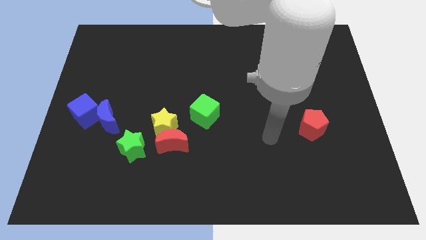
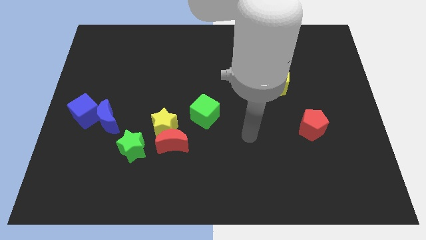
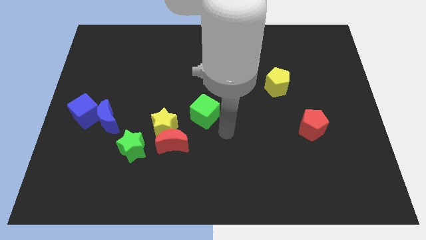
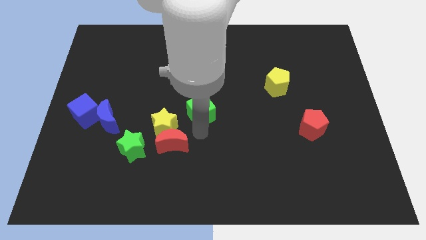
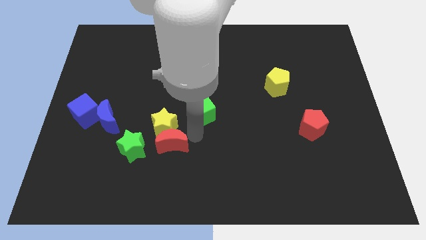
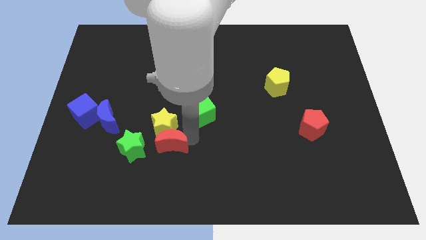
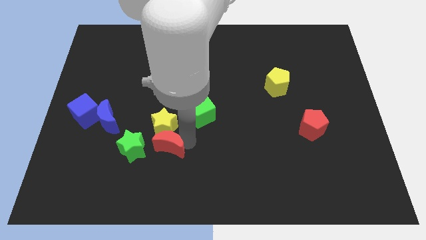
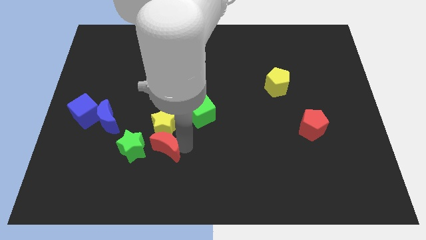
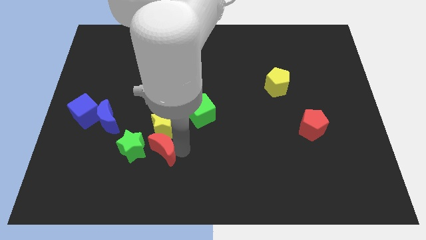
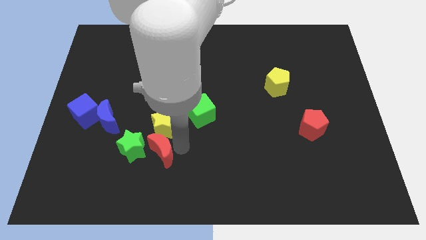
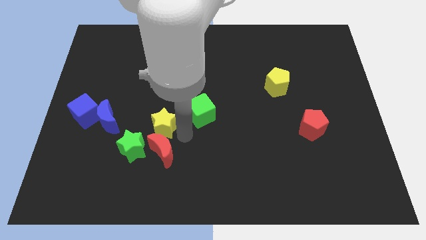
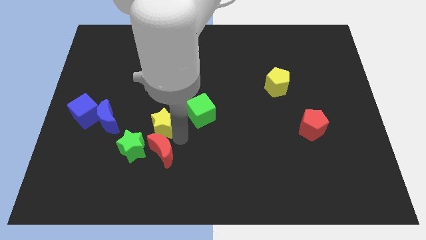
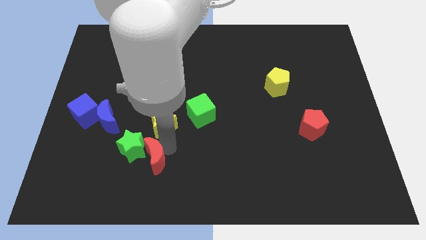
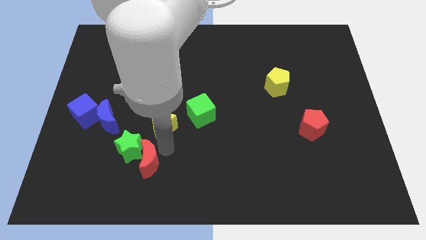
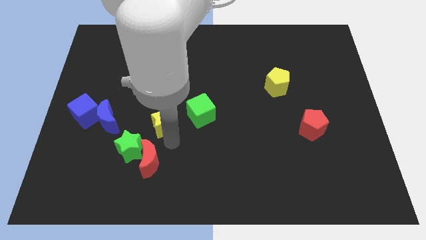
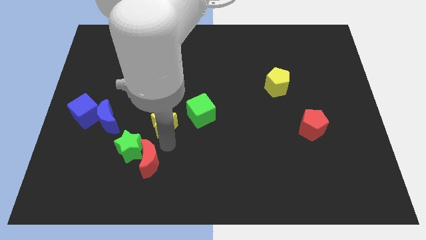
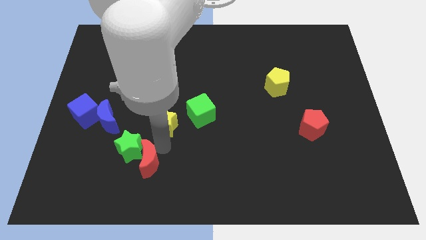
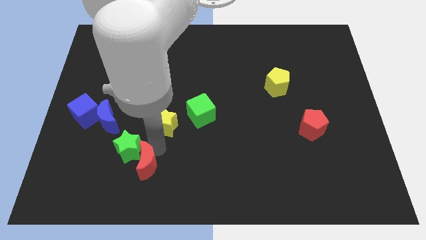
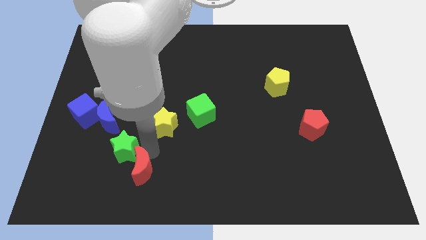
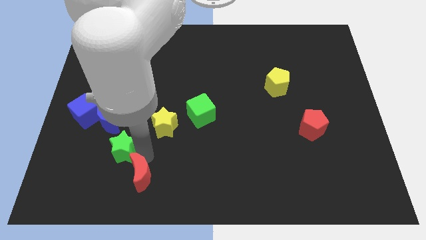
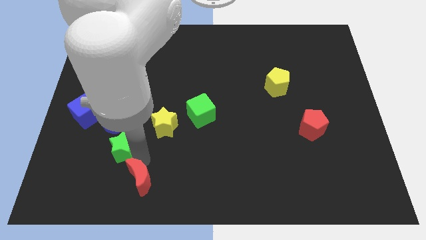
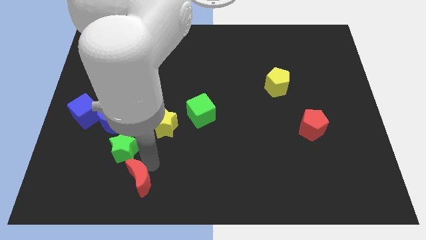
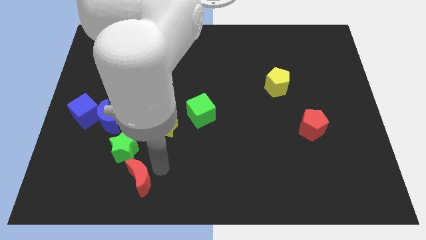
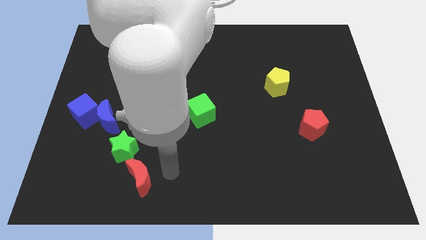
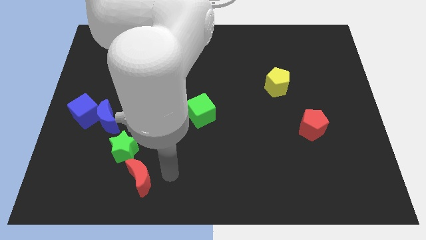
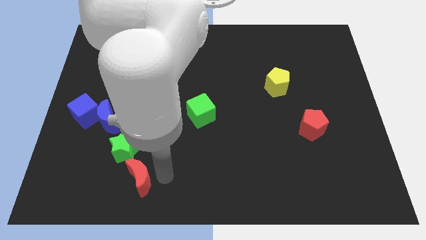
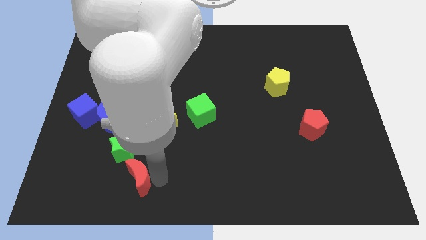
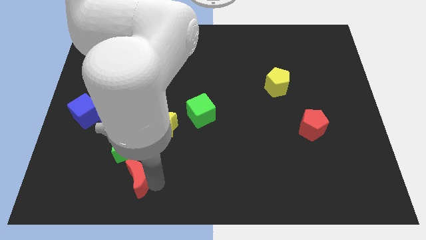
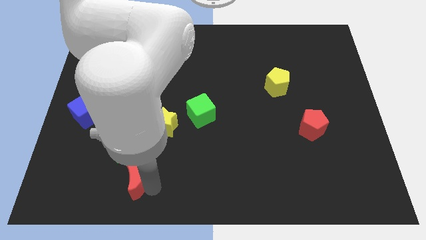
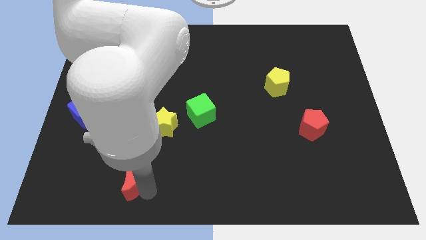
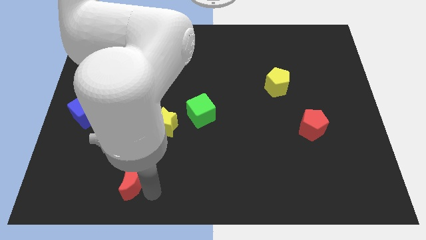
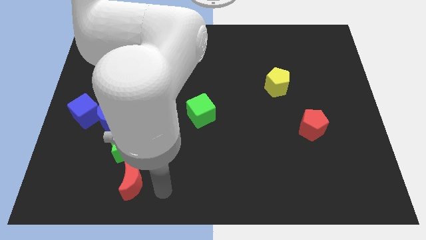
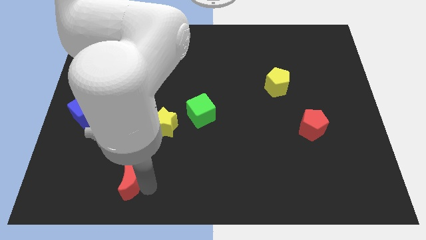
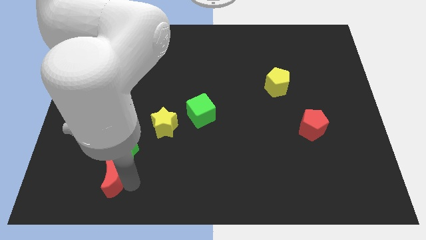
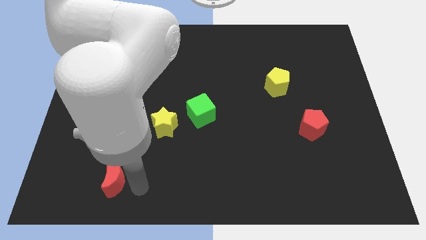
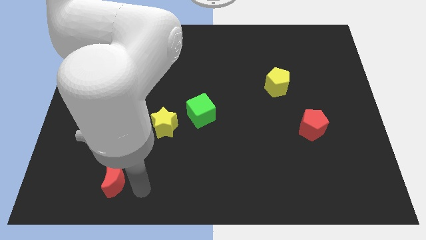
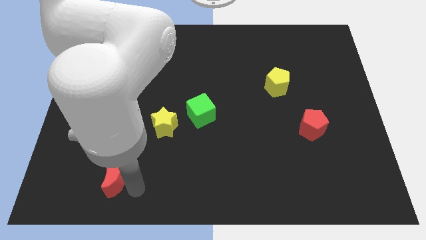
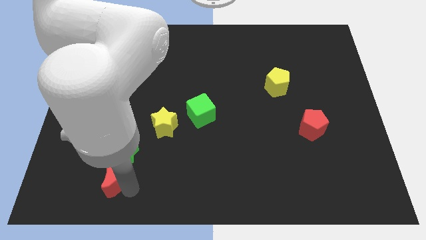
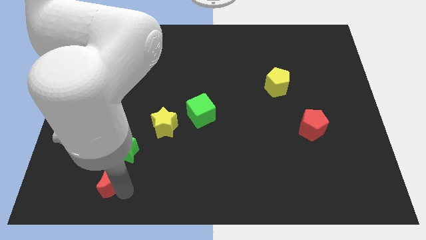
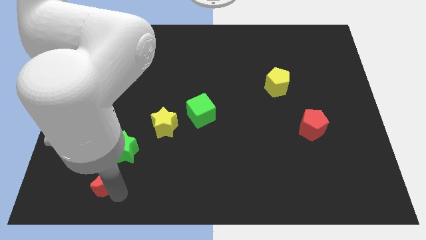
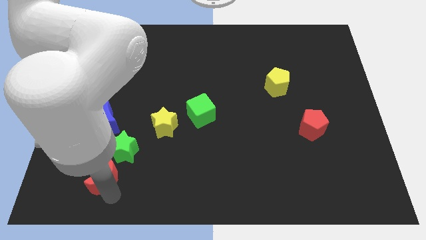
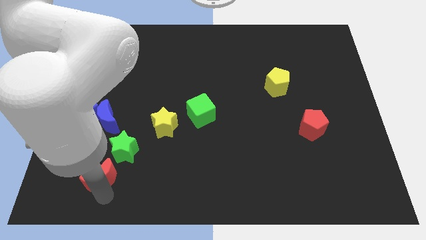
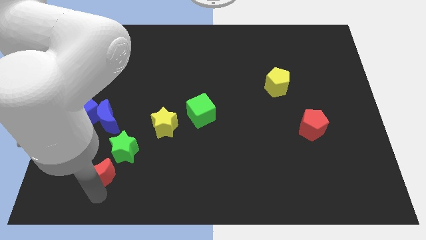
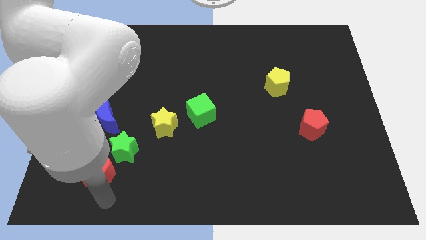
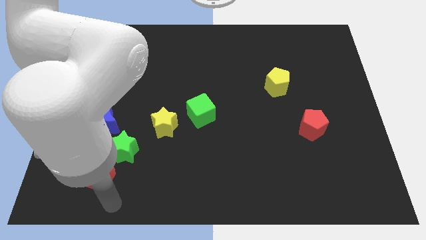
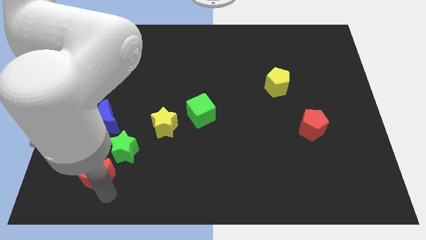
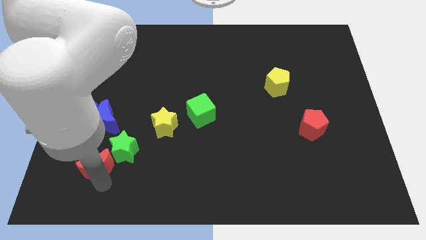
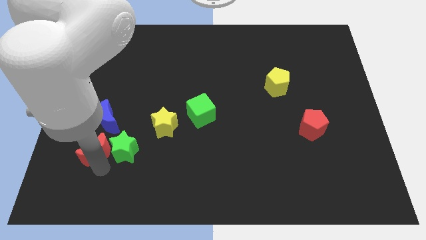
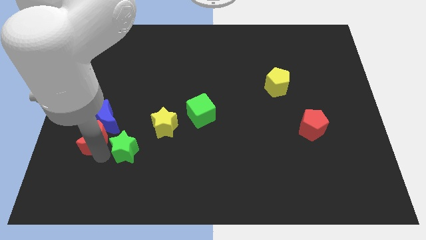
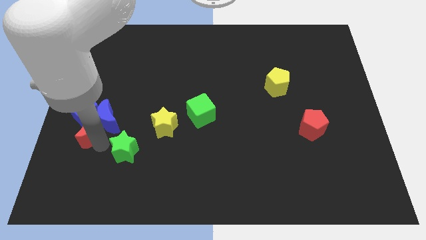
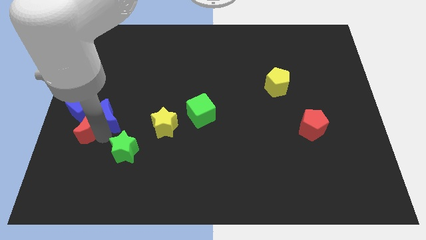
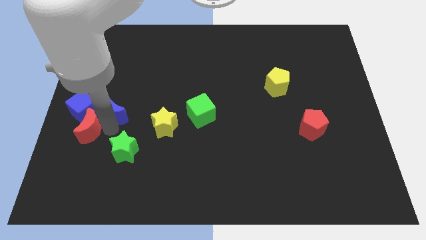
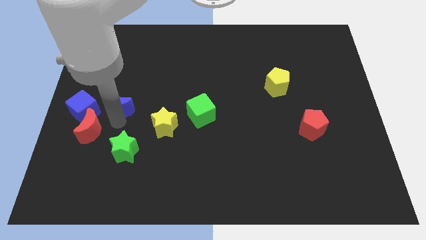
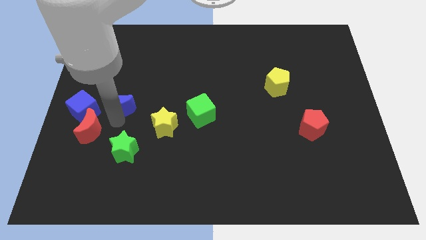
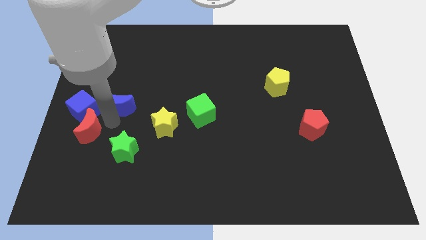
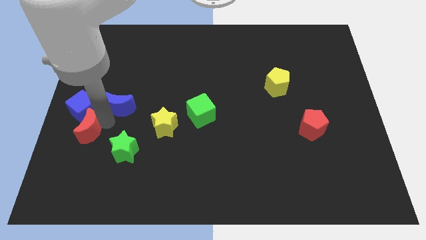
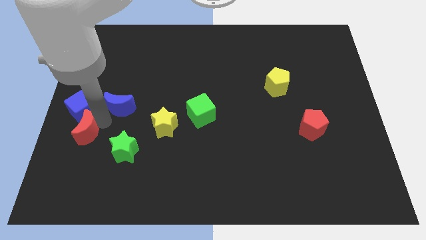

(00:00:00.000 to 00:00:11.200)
put the red moon to the left side

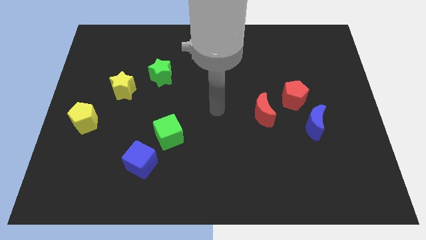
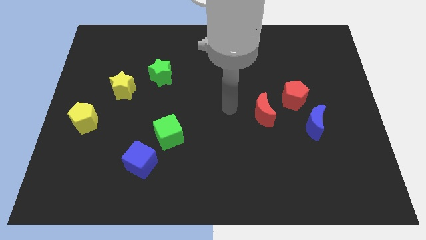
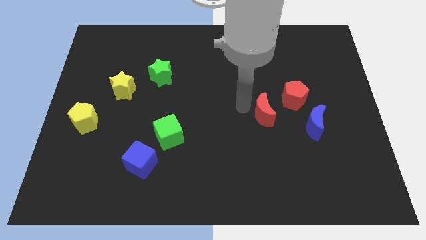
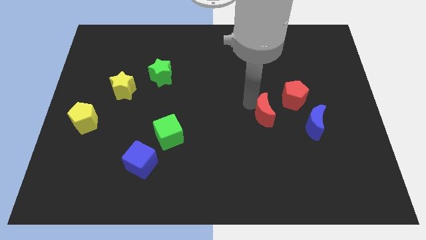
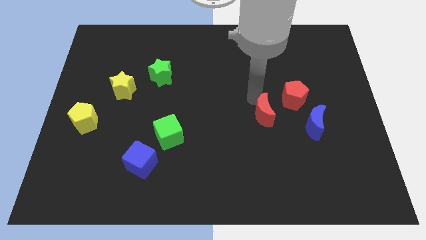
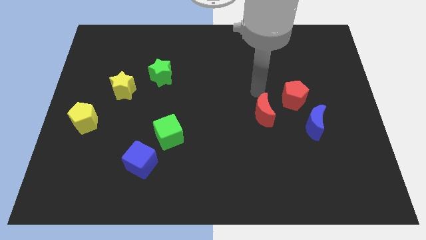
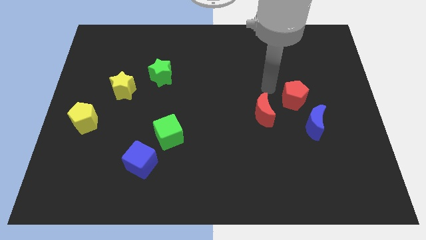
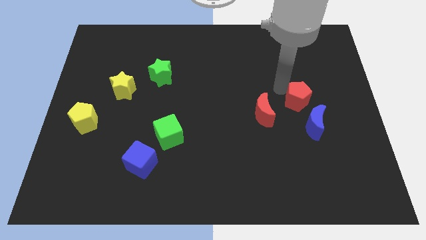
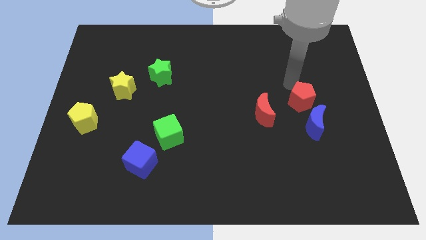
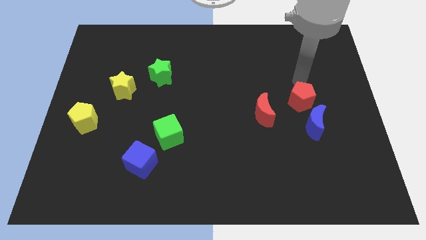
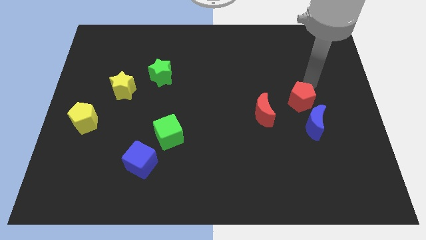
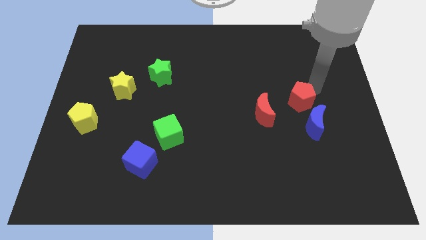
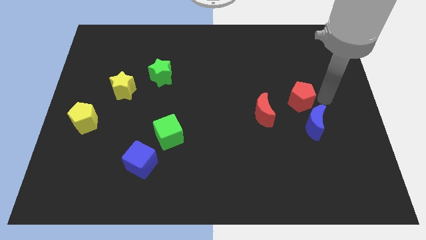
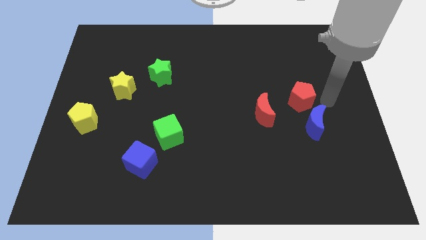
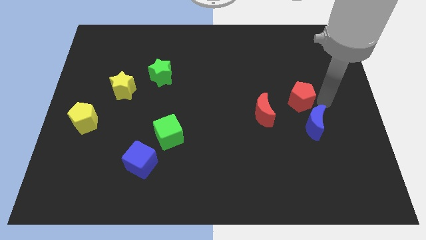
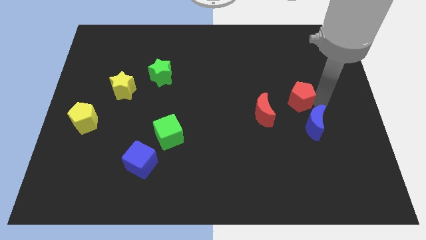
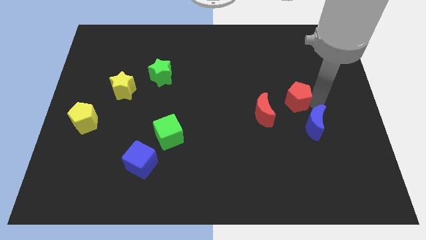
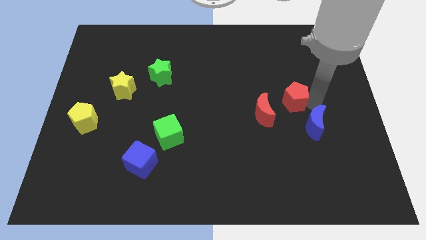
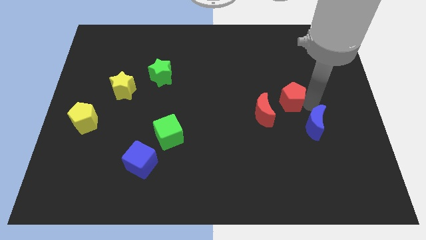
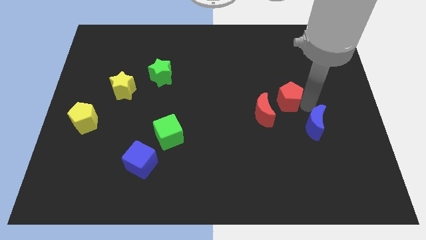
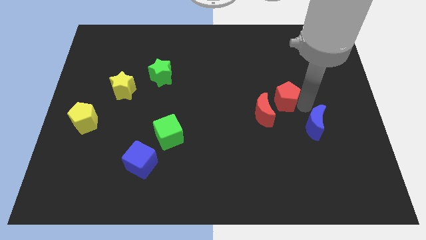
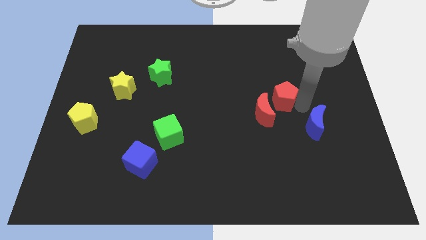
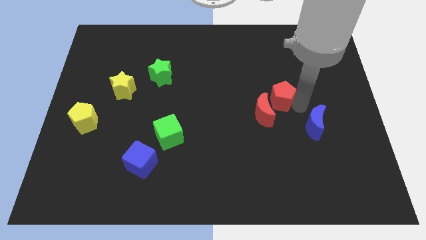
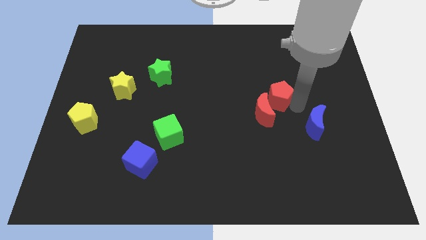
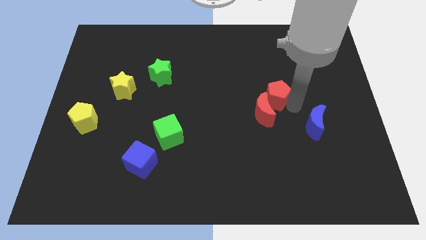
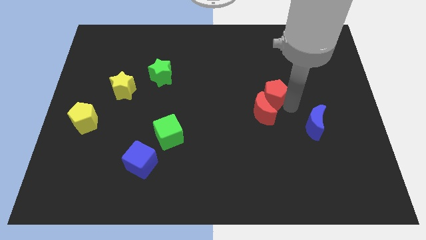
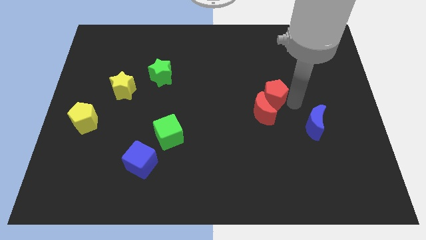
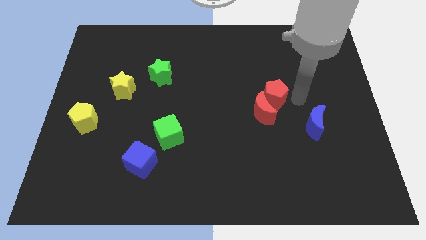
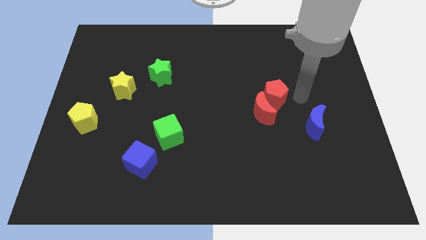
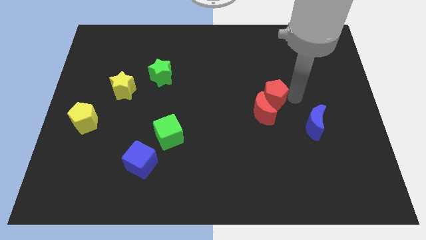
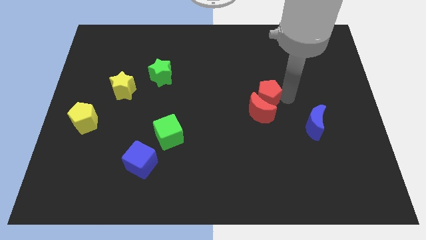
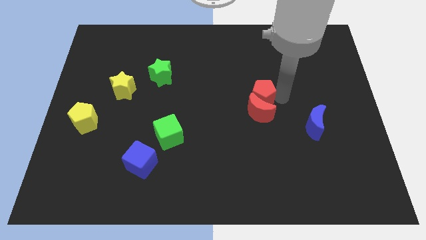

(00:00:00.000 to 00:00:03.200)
move the red pentagon to the center of the board
